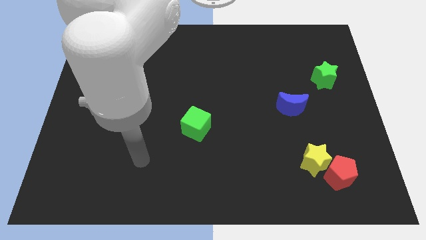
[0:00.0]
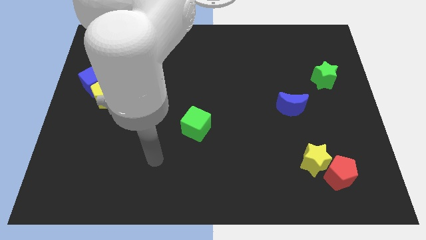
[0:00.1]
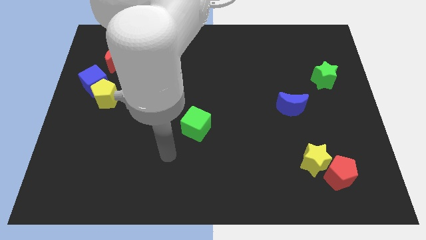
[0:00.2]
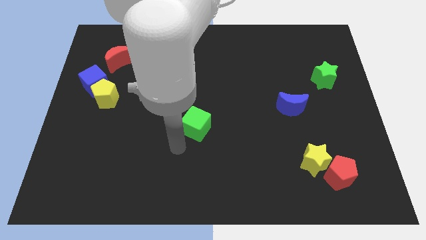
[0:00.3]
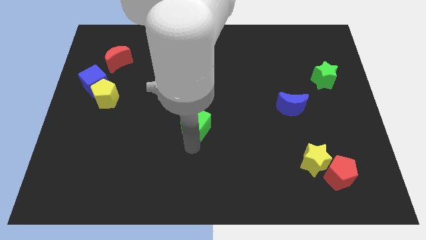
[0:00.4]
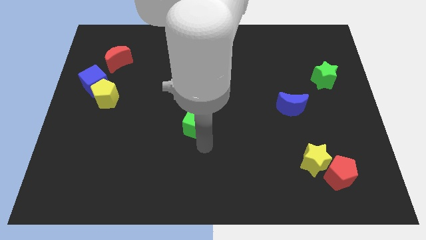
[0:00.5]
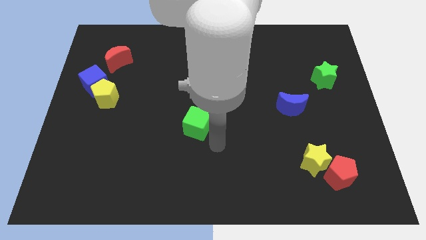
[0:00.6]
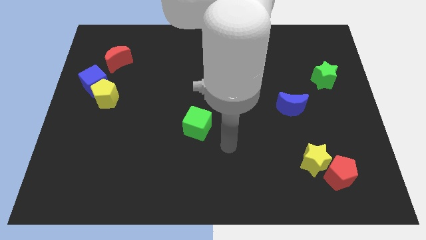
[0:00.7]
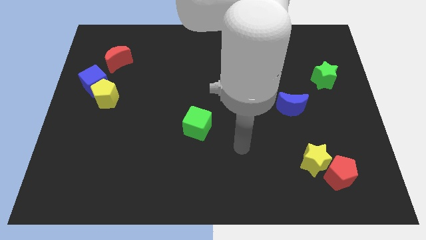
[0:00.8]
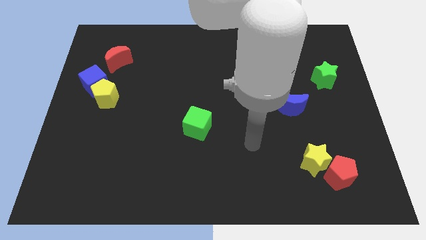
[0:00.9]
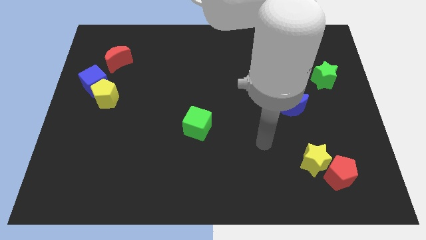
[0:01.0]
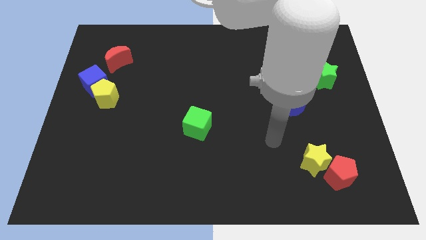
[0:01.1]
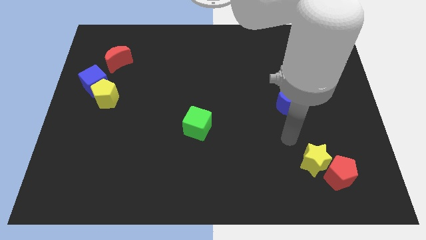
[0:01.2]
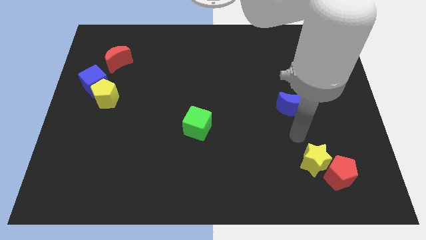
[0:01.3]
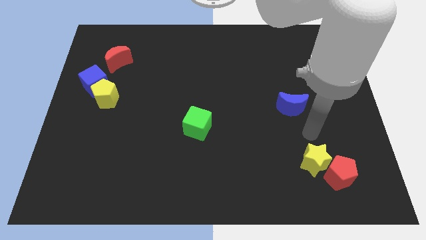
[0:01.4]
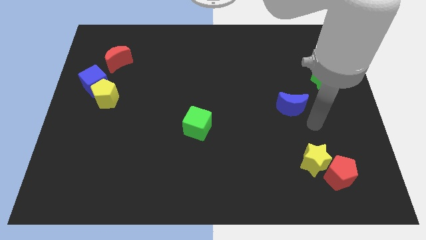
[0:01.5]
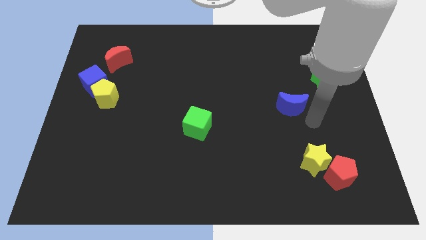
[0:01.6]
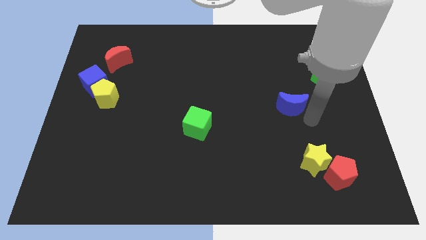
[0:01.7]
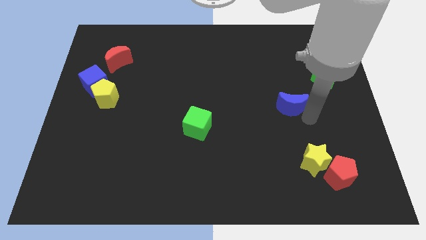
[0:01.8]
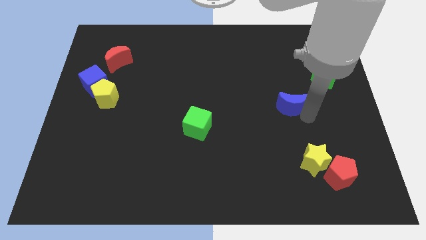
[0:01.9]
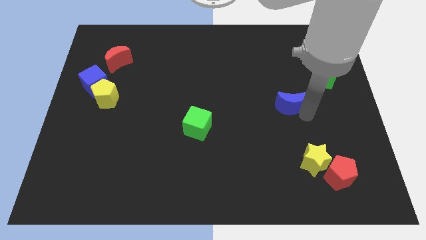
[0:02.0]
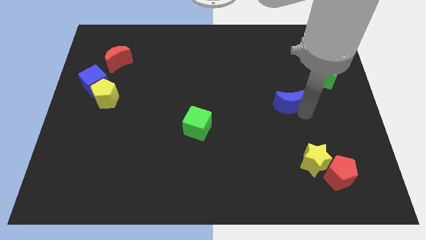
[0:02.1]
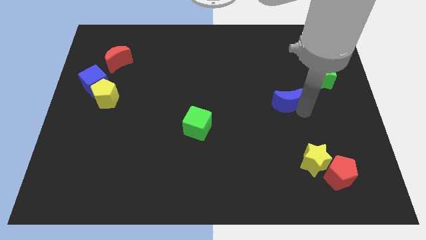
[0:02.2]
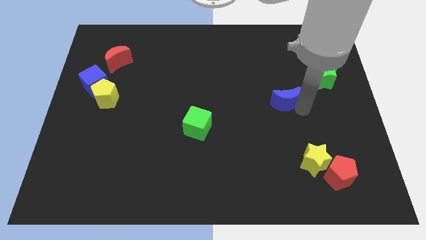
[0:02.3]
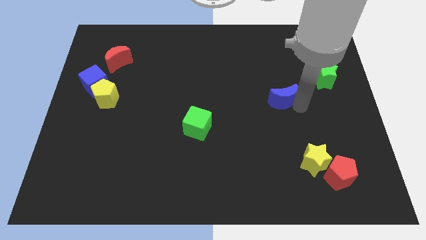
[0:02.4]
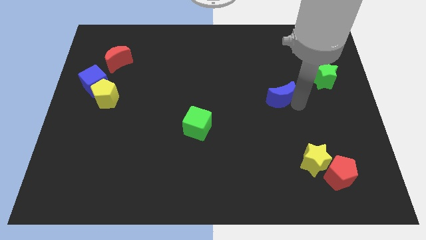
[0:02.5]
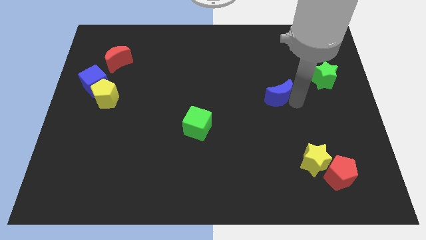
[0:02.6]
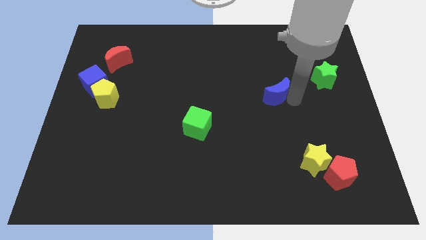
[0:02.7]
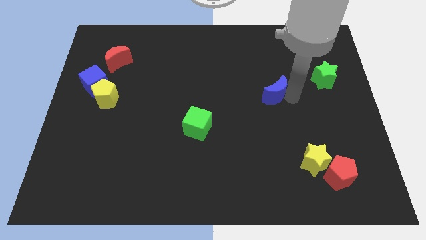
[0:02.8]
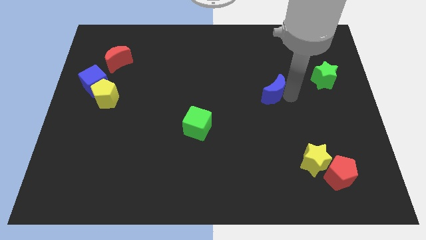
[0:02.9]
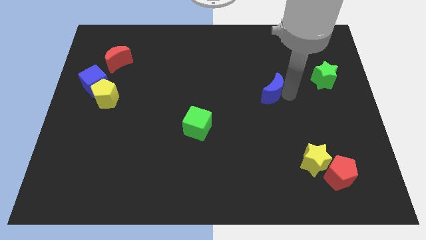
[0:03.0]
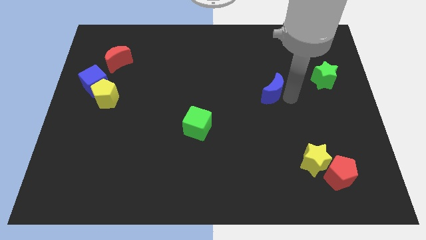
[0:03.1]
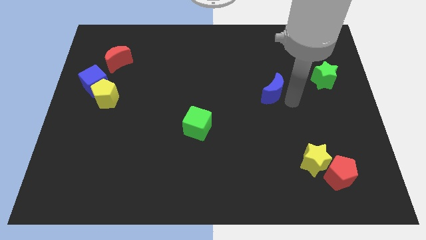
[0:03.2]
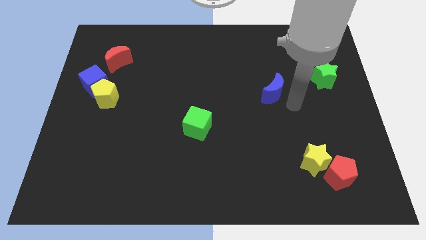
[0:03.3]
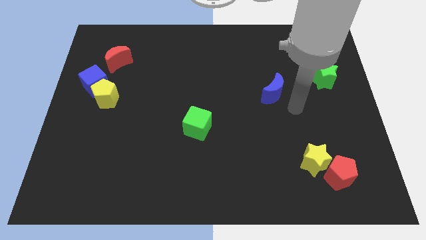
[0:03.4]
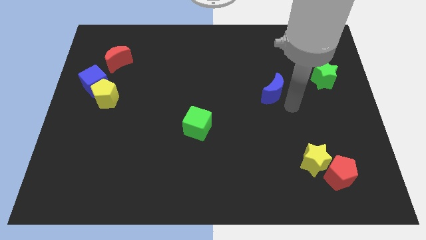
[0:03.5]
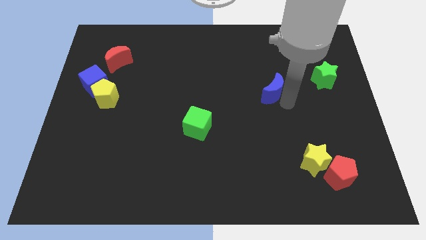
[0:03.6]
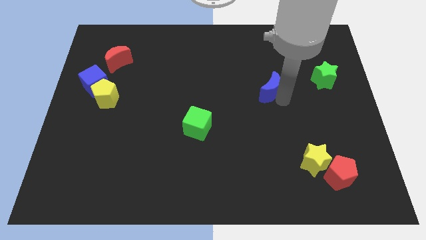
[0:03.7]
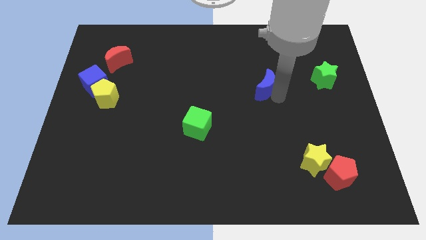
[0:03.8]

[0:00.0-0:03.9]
move the blue moon upwards and left somewhat

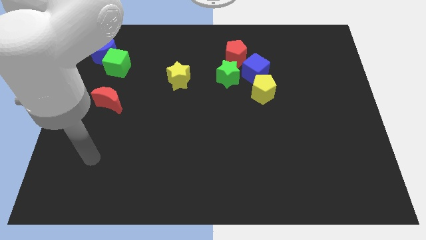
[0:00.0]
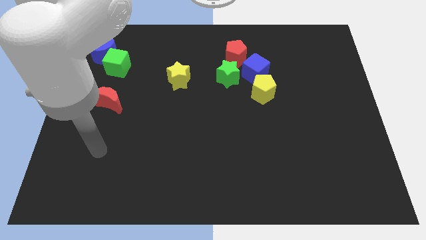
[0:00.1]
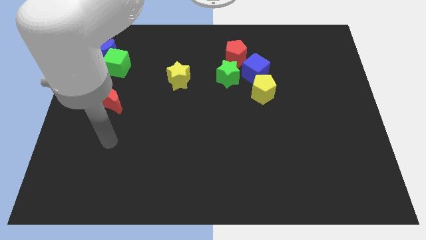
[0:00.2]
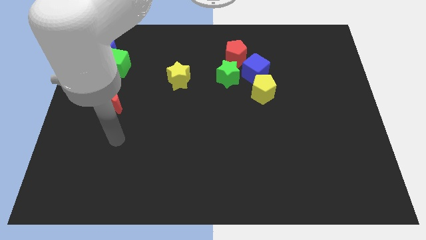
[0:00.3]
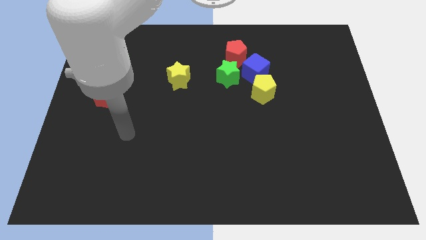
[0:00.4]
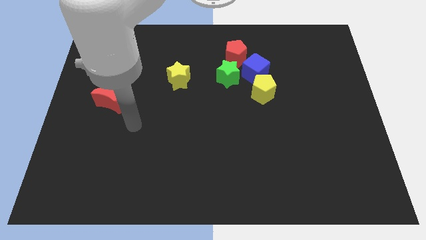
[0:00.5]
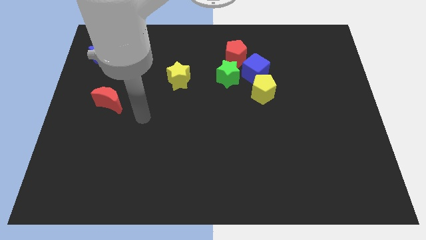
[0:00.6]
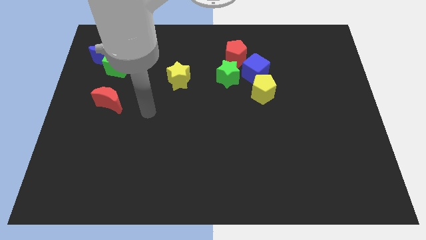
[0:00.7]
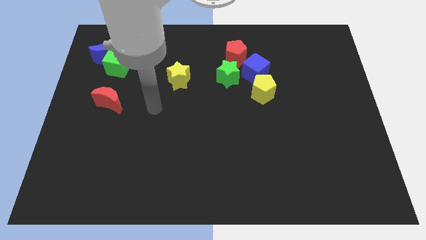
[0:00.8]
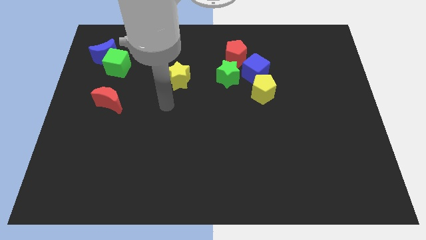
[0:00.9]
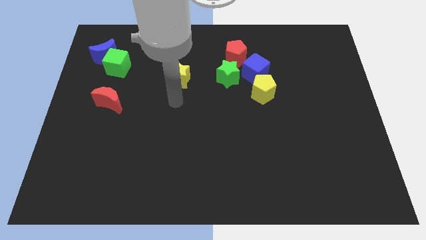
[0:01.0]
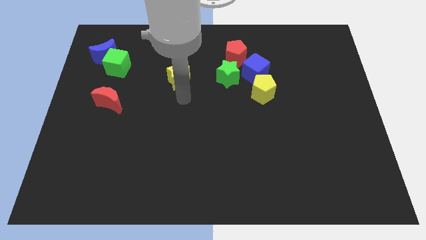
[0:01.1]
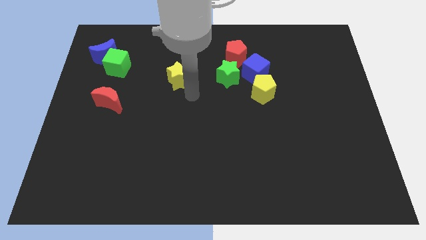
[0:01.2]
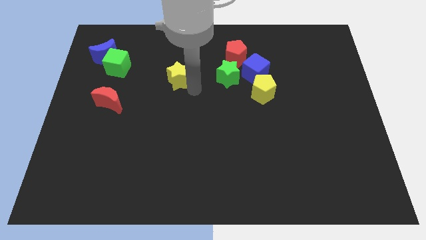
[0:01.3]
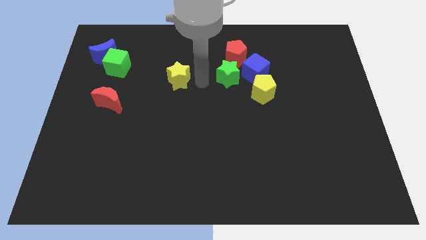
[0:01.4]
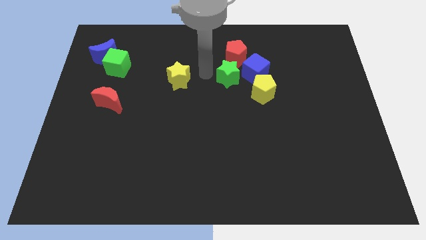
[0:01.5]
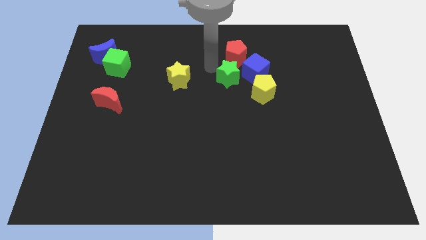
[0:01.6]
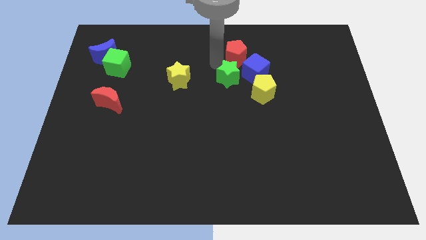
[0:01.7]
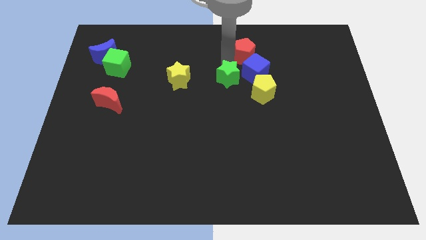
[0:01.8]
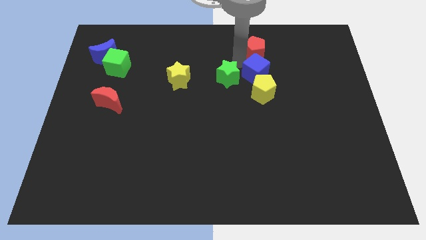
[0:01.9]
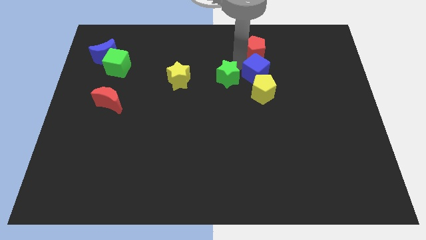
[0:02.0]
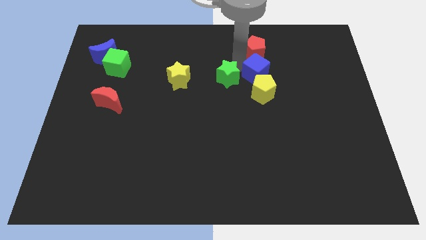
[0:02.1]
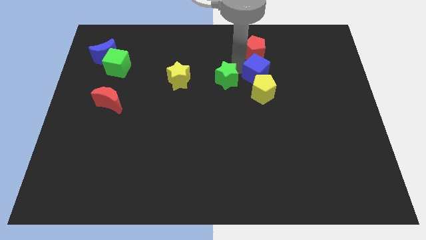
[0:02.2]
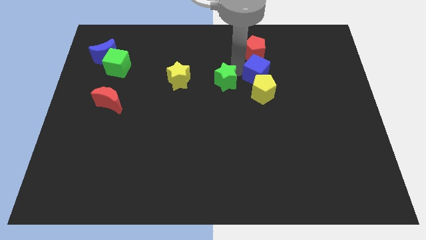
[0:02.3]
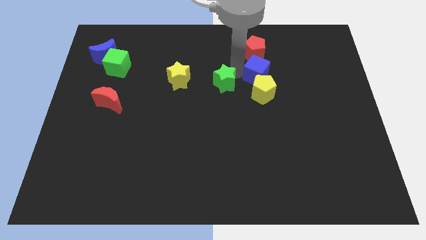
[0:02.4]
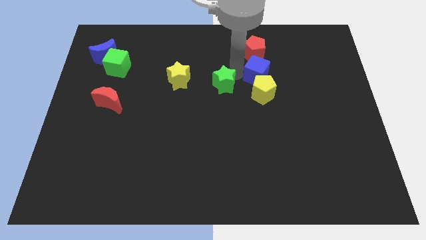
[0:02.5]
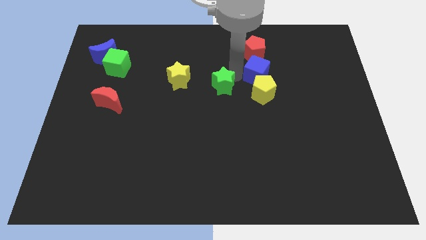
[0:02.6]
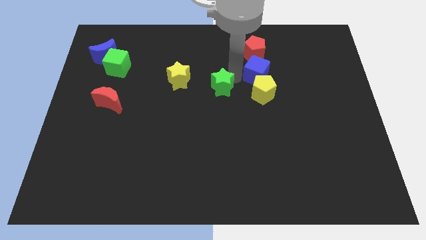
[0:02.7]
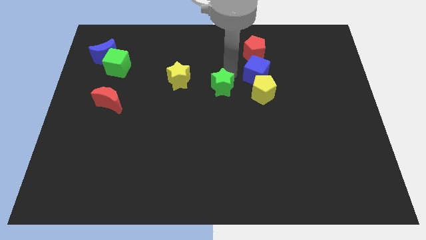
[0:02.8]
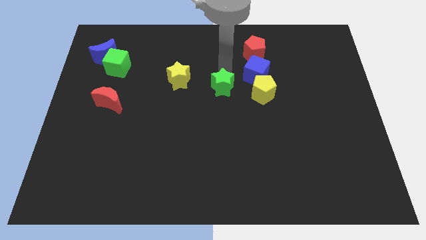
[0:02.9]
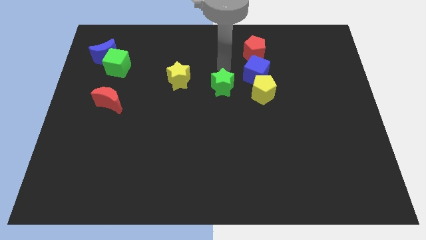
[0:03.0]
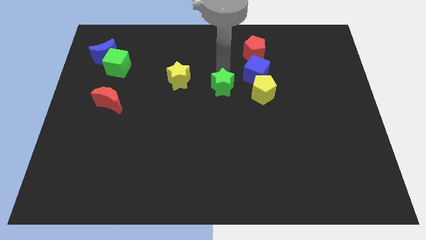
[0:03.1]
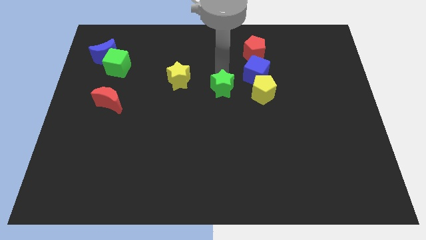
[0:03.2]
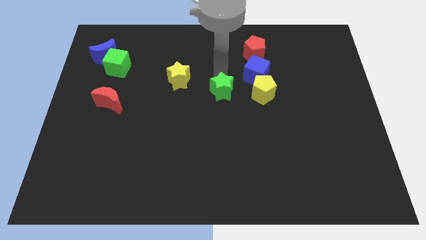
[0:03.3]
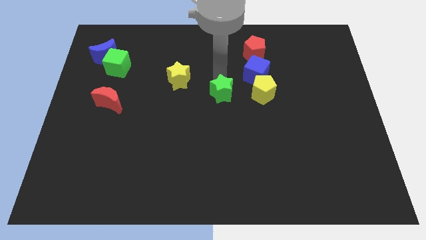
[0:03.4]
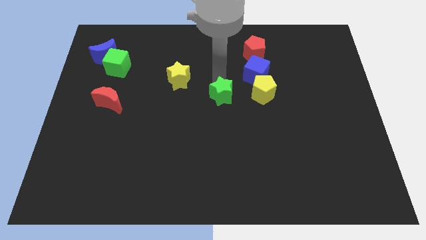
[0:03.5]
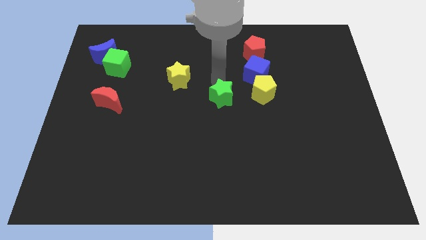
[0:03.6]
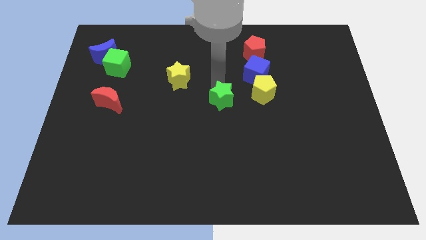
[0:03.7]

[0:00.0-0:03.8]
slightly push the green star down

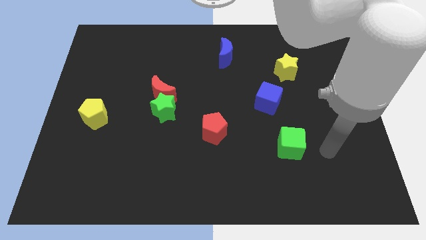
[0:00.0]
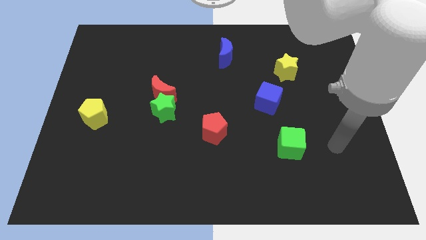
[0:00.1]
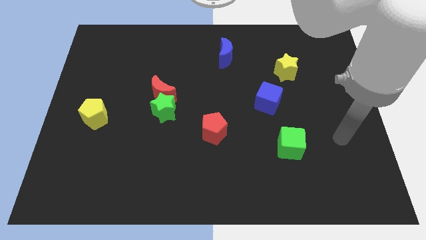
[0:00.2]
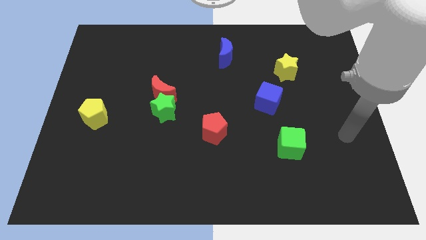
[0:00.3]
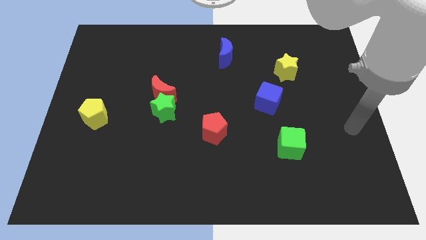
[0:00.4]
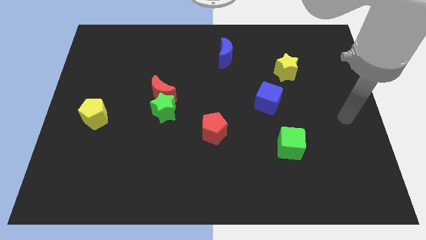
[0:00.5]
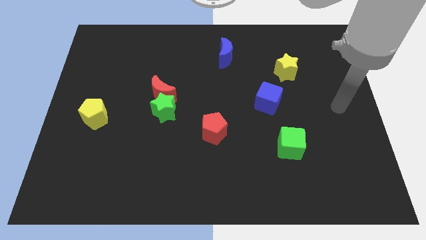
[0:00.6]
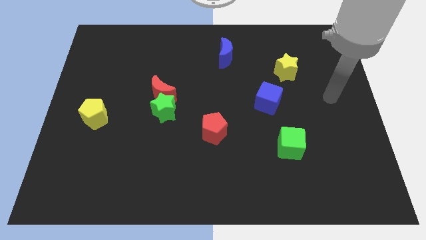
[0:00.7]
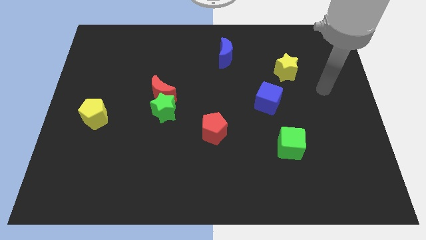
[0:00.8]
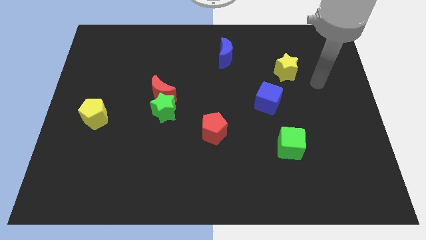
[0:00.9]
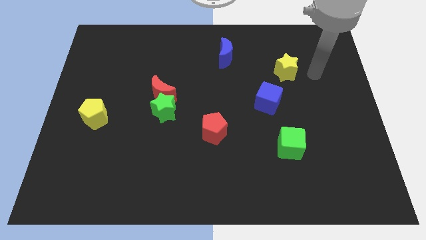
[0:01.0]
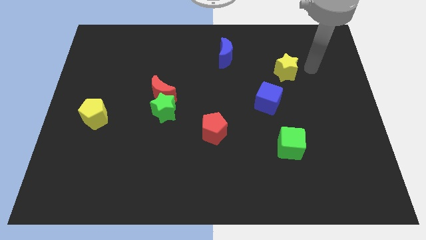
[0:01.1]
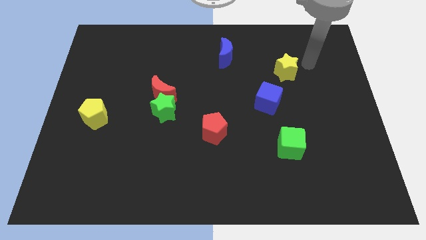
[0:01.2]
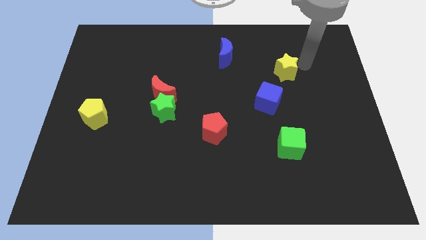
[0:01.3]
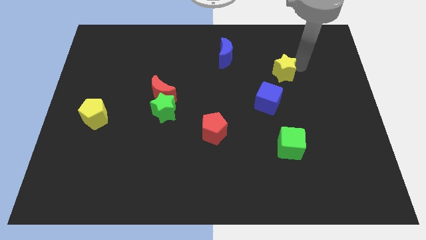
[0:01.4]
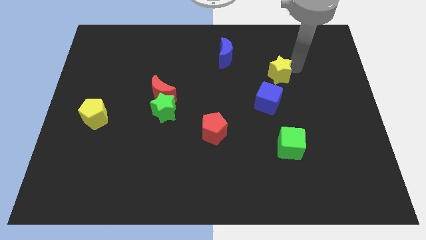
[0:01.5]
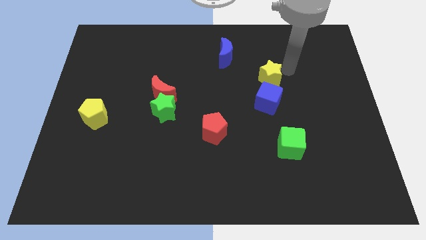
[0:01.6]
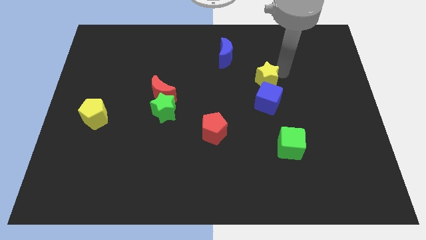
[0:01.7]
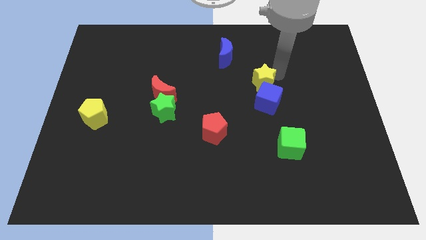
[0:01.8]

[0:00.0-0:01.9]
push the yellow star downwards and to the left diagonally a little bit
